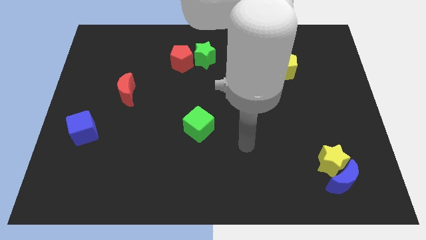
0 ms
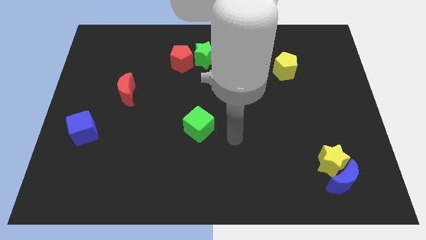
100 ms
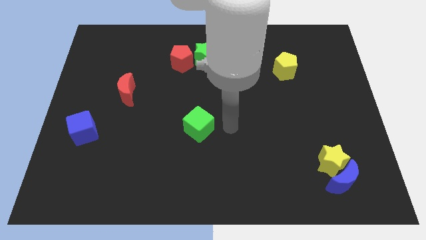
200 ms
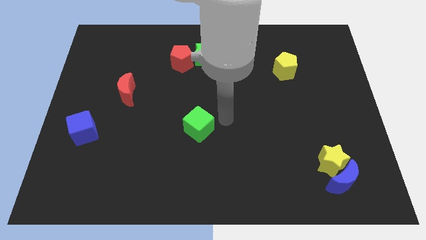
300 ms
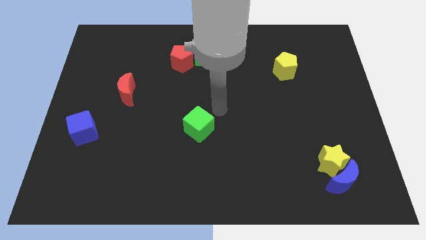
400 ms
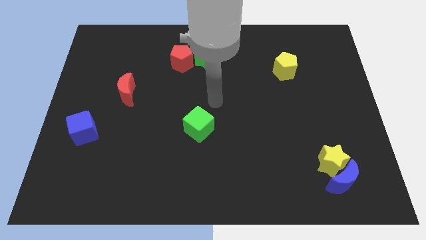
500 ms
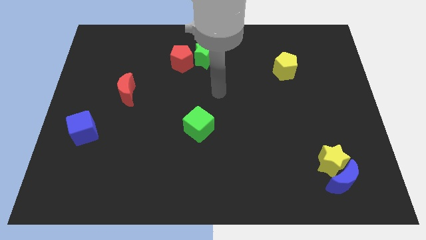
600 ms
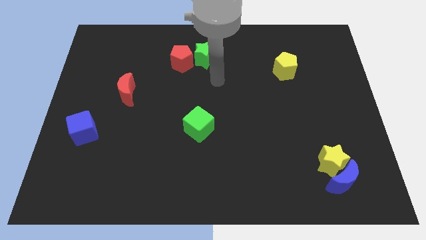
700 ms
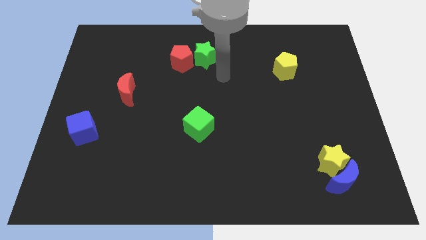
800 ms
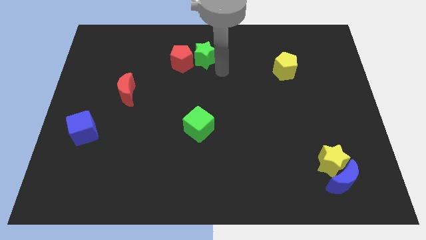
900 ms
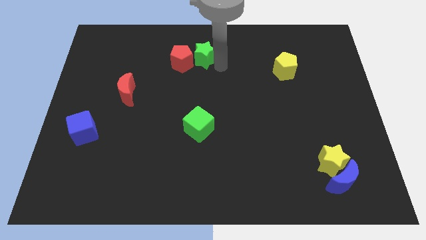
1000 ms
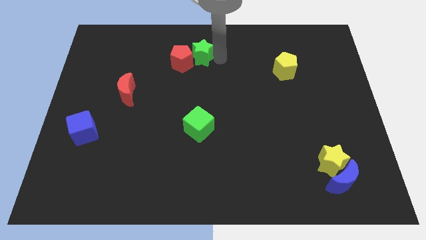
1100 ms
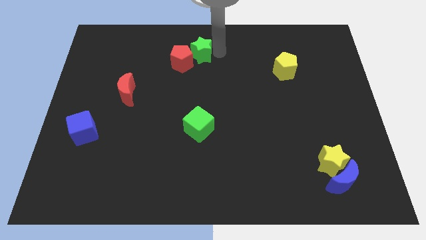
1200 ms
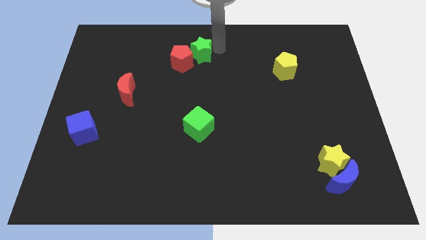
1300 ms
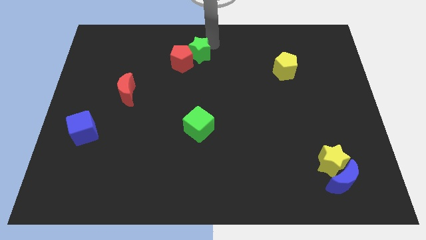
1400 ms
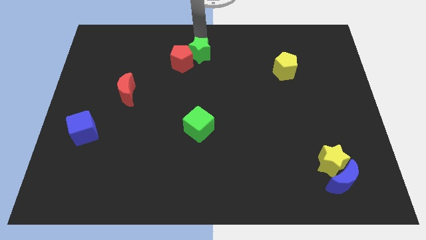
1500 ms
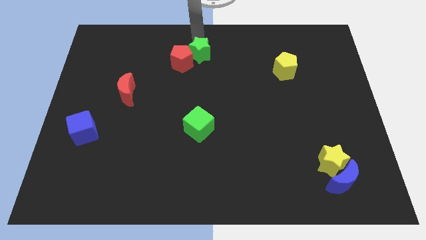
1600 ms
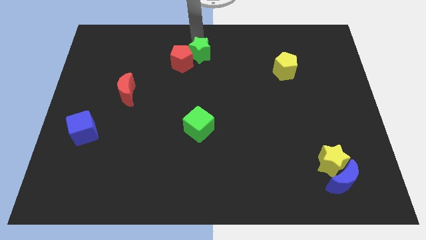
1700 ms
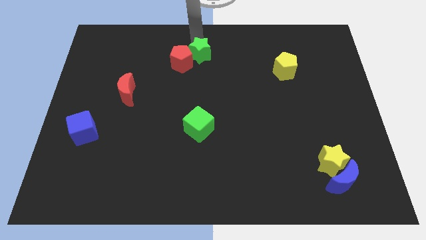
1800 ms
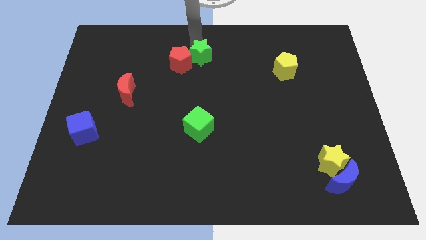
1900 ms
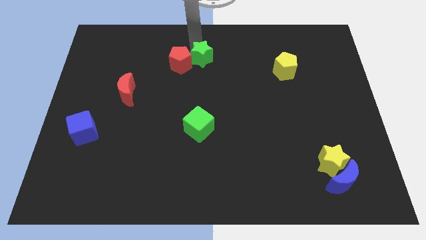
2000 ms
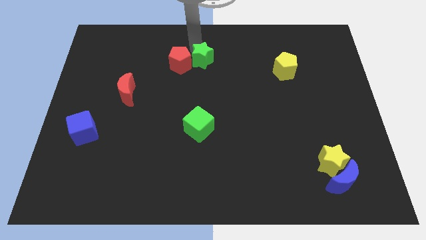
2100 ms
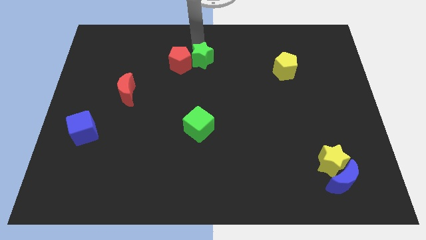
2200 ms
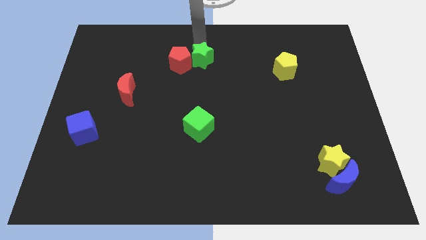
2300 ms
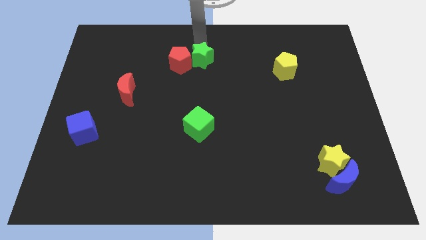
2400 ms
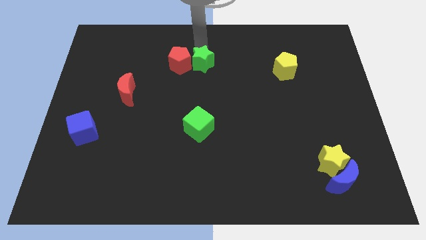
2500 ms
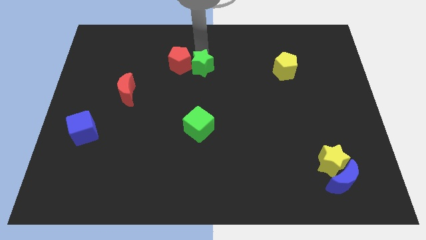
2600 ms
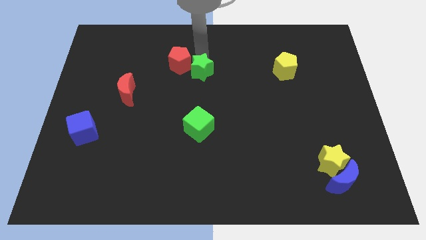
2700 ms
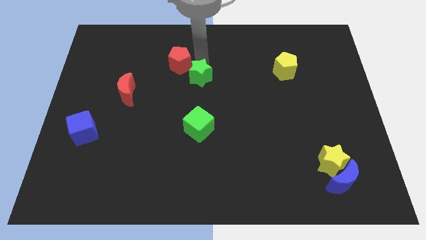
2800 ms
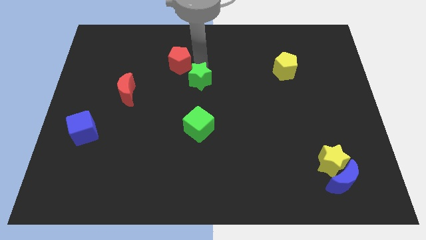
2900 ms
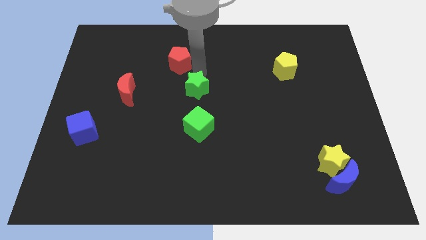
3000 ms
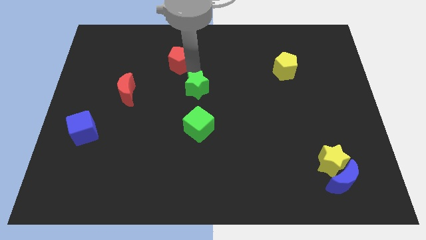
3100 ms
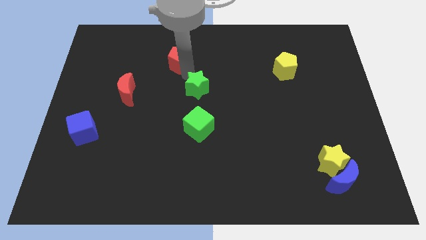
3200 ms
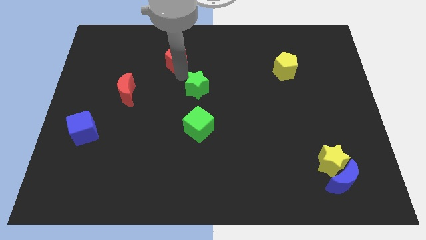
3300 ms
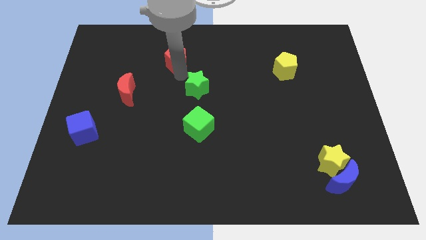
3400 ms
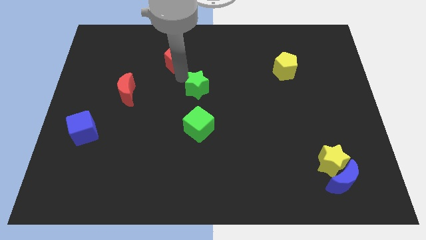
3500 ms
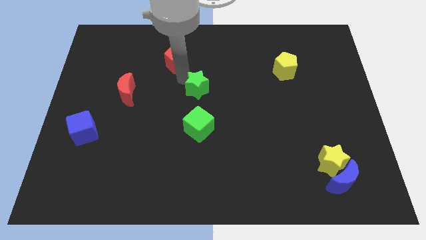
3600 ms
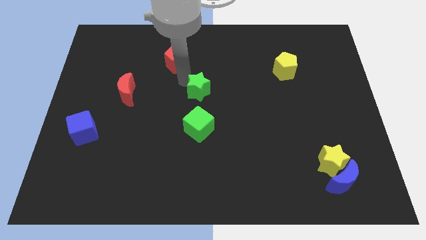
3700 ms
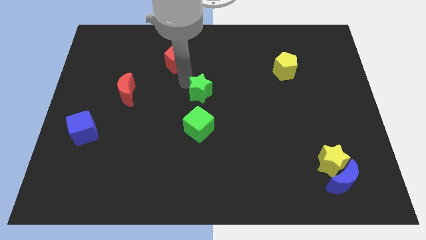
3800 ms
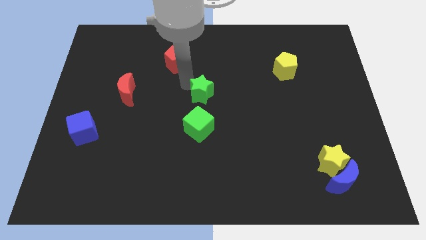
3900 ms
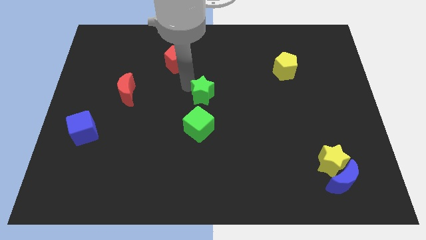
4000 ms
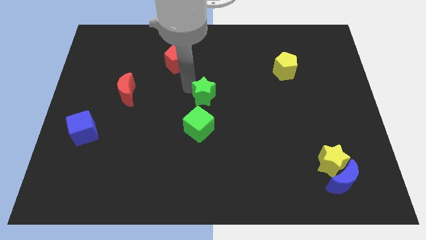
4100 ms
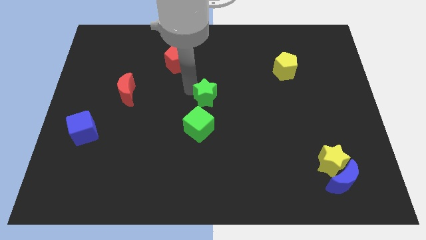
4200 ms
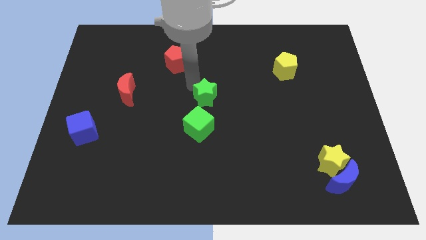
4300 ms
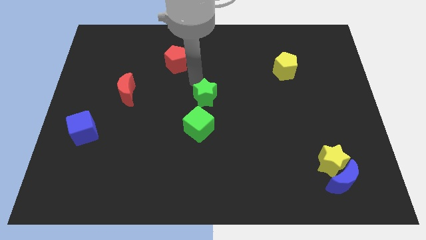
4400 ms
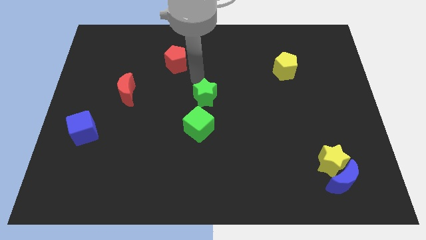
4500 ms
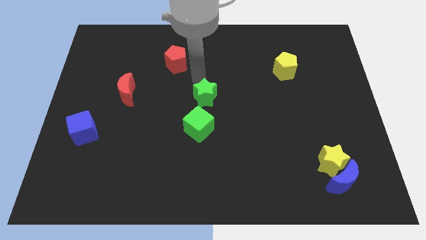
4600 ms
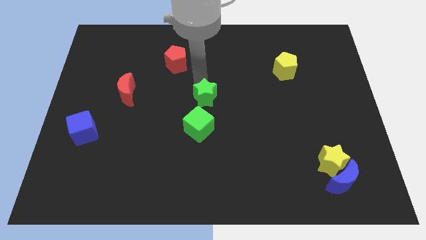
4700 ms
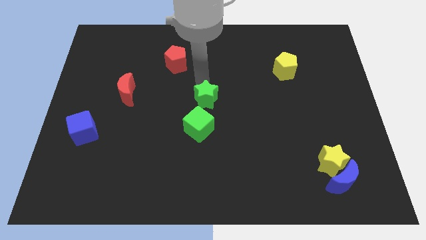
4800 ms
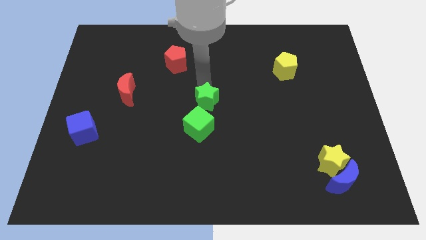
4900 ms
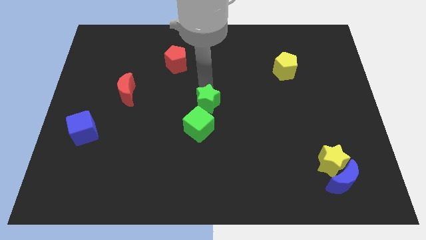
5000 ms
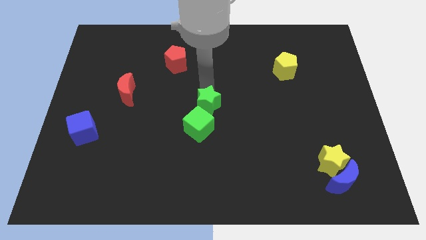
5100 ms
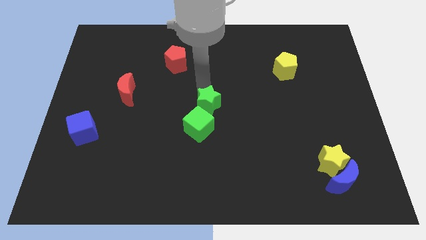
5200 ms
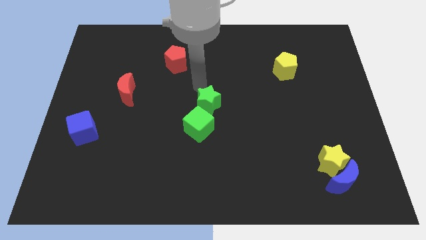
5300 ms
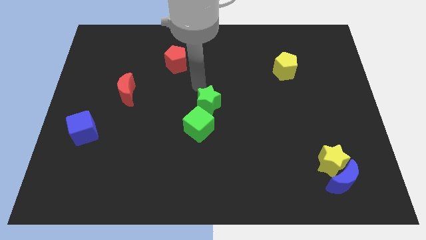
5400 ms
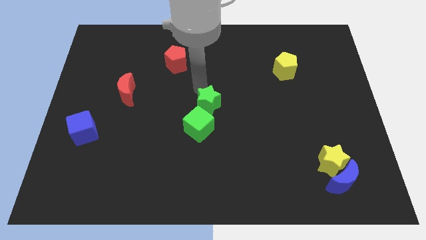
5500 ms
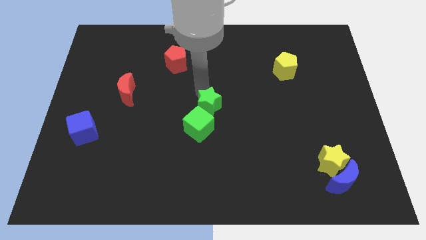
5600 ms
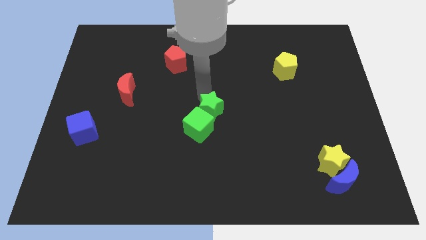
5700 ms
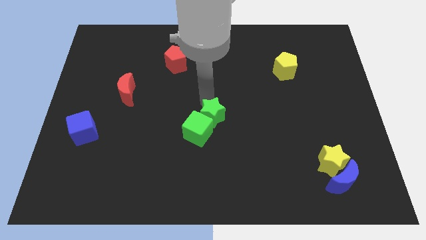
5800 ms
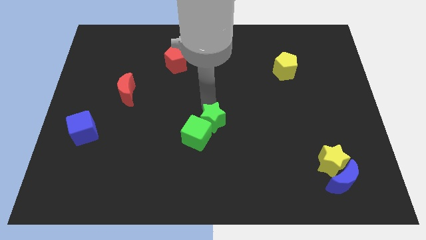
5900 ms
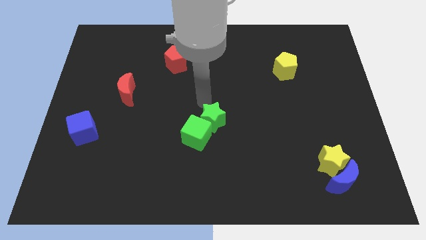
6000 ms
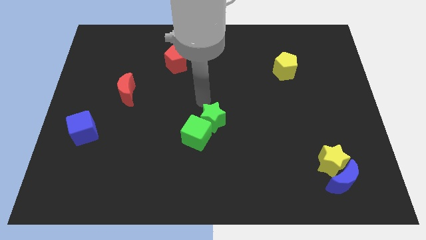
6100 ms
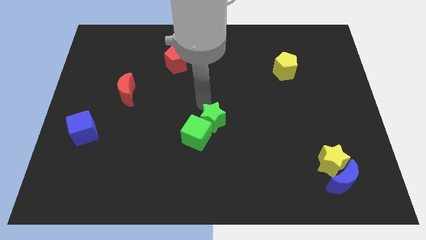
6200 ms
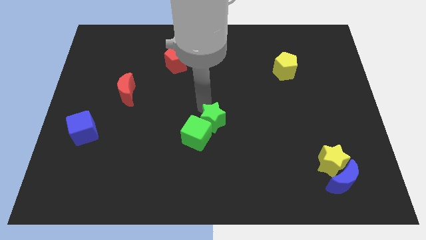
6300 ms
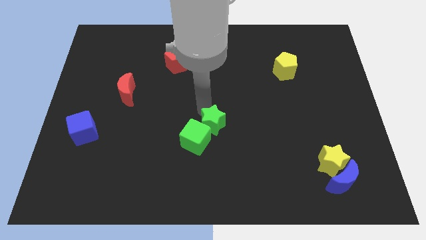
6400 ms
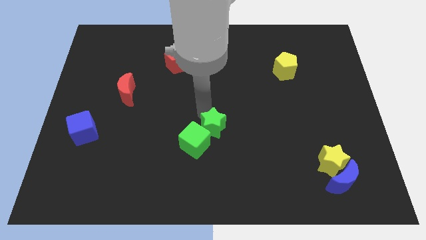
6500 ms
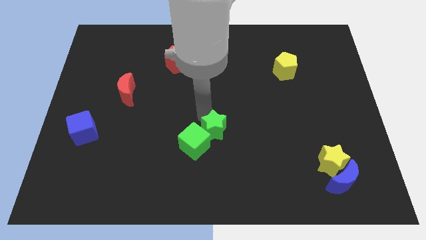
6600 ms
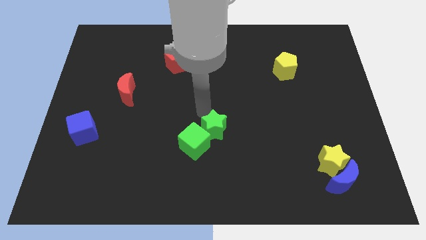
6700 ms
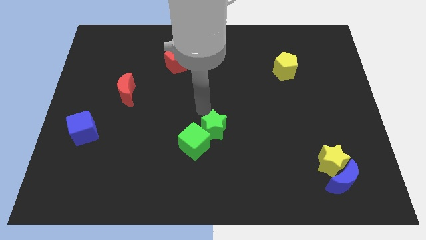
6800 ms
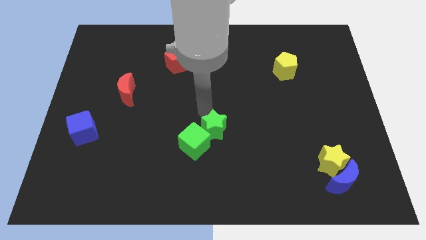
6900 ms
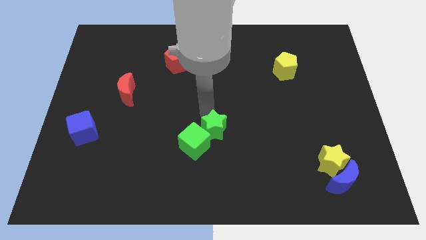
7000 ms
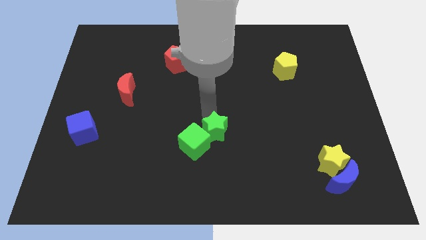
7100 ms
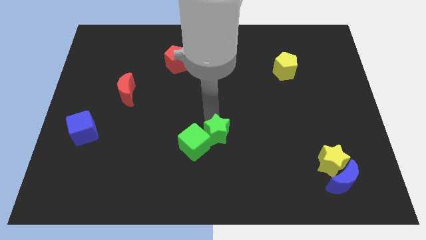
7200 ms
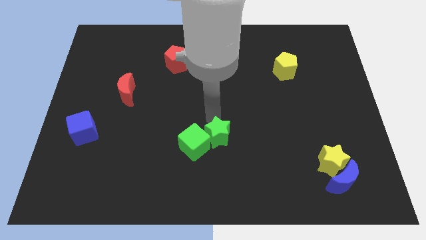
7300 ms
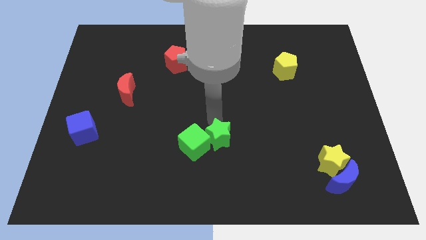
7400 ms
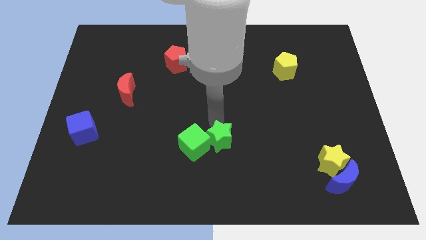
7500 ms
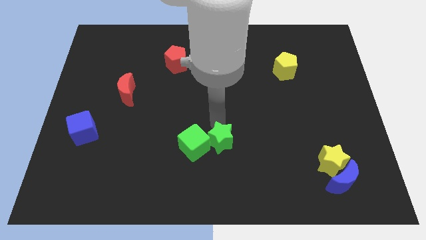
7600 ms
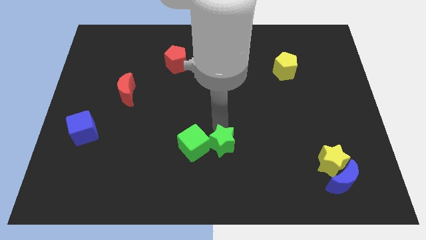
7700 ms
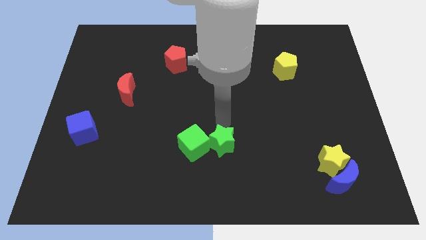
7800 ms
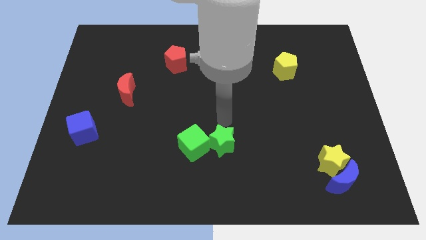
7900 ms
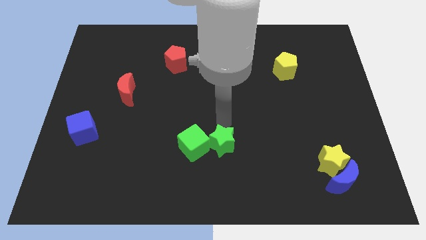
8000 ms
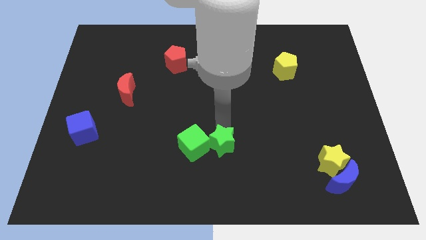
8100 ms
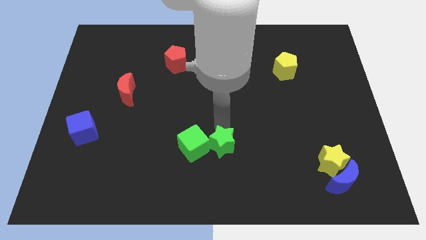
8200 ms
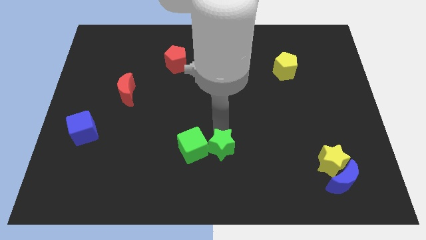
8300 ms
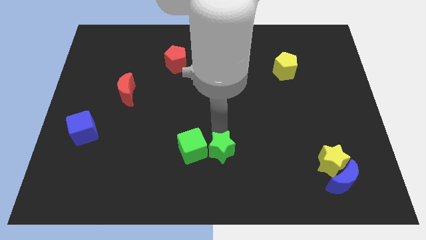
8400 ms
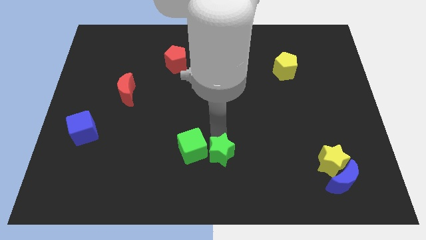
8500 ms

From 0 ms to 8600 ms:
slide the green star to the bottom
